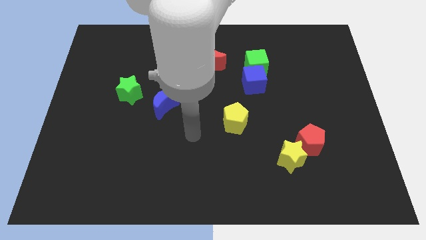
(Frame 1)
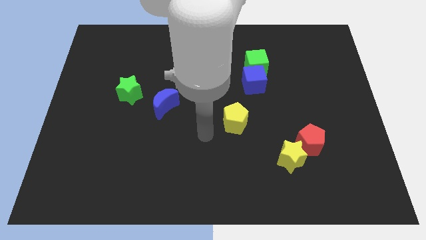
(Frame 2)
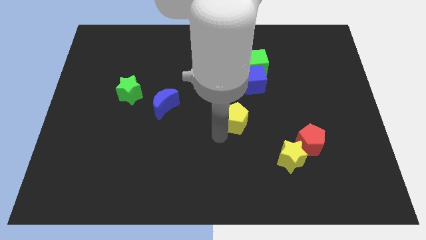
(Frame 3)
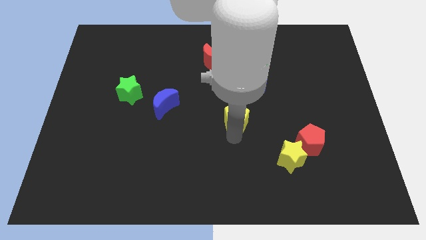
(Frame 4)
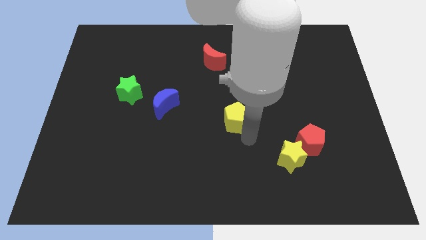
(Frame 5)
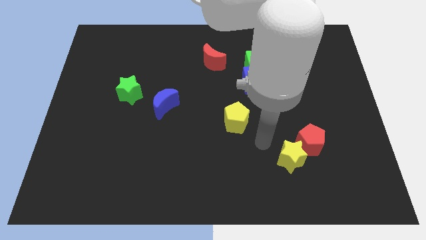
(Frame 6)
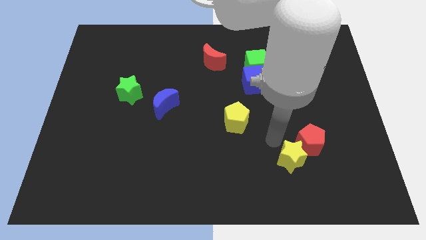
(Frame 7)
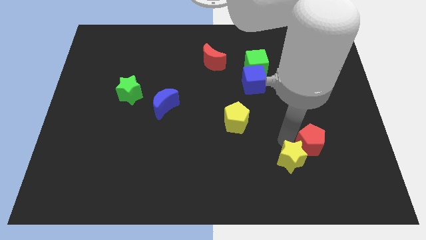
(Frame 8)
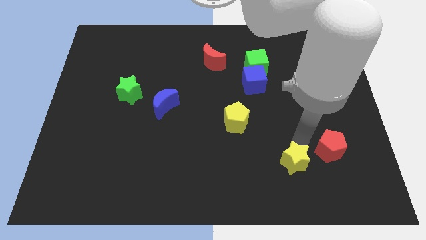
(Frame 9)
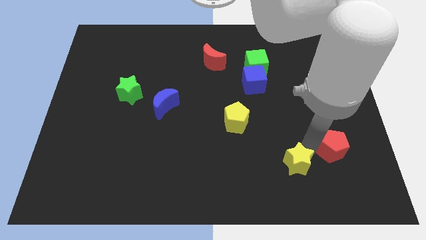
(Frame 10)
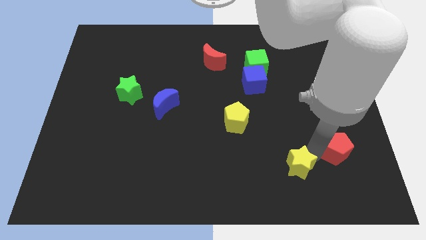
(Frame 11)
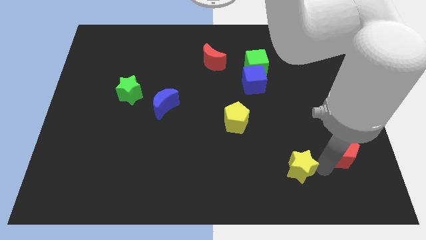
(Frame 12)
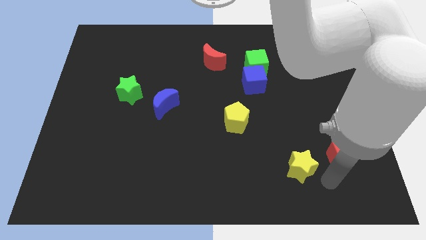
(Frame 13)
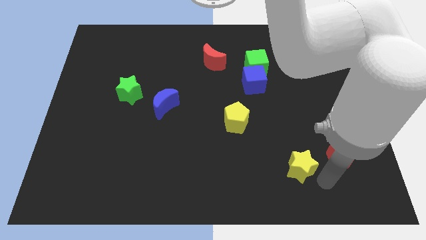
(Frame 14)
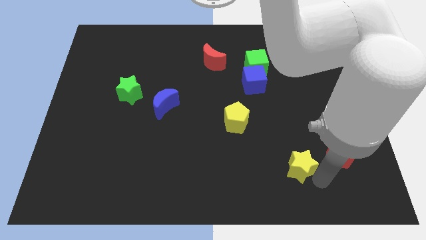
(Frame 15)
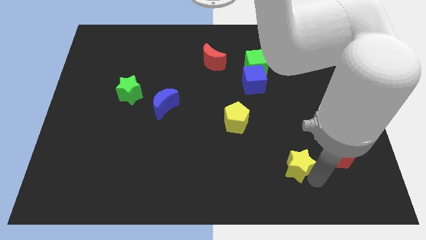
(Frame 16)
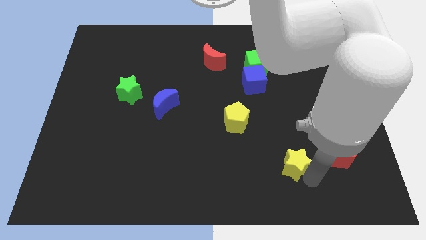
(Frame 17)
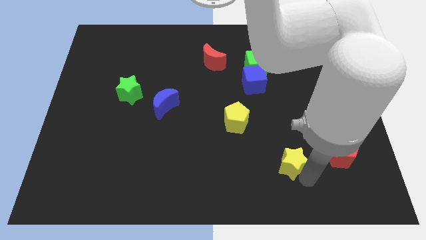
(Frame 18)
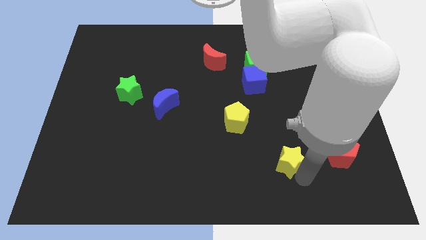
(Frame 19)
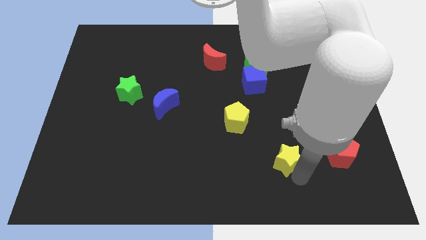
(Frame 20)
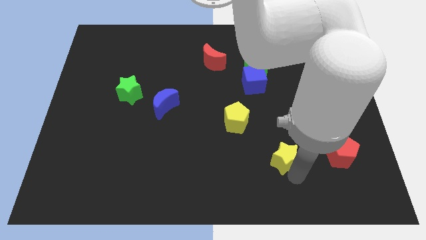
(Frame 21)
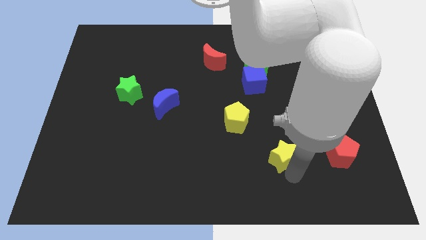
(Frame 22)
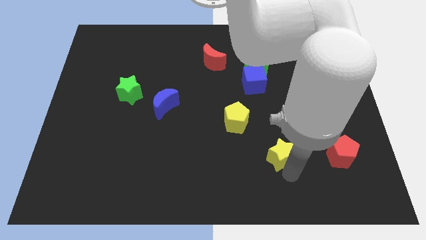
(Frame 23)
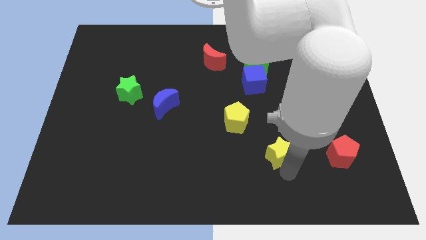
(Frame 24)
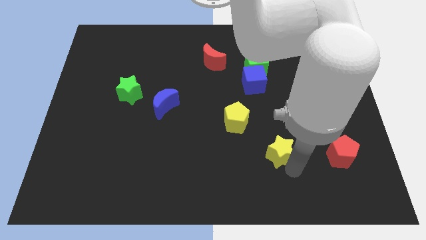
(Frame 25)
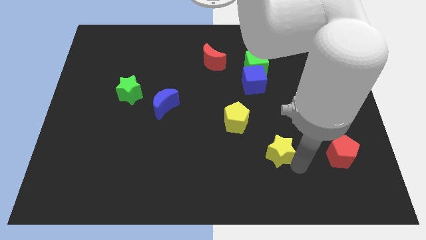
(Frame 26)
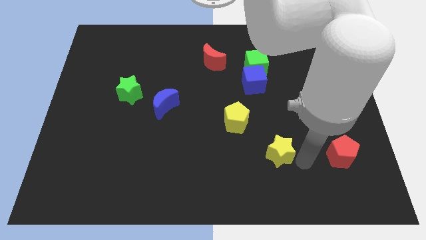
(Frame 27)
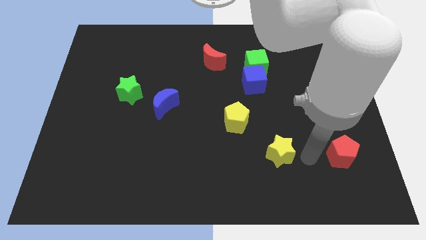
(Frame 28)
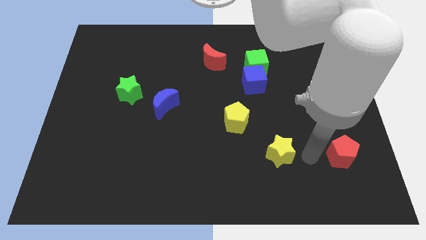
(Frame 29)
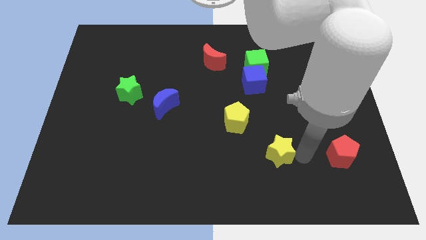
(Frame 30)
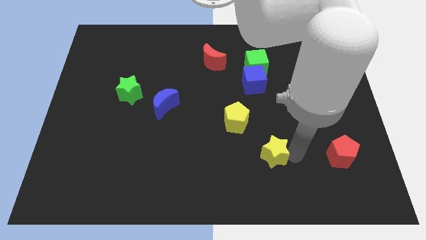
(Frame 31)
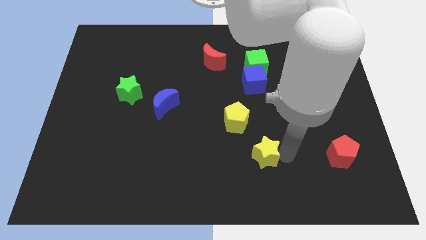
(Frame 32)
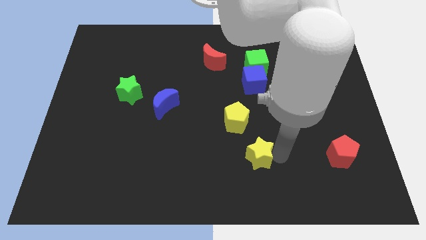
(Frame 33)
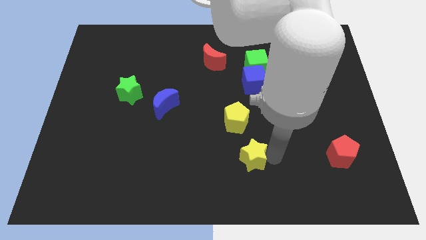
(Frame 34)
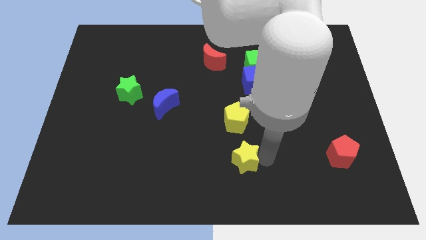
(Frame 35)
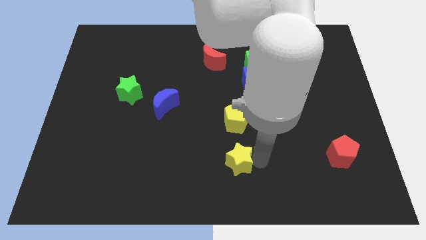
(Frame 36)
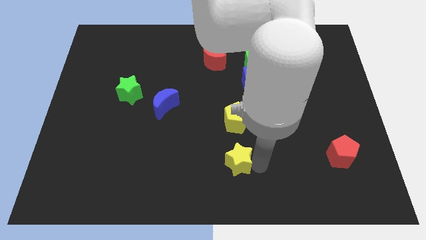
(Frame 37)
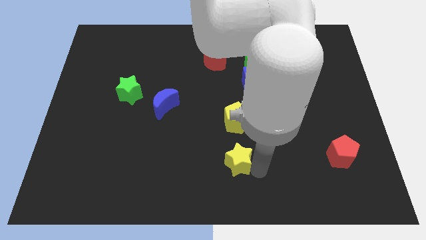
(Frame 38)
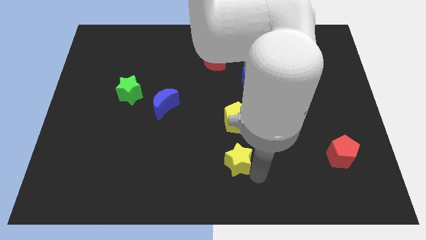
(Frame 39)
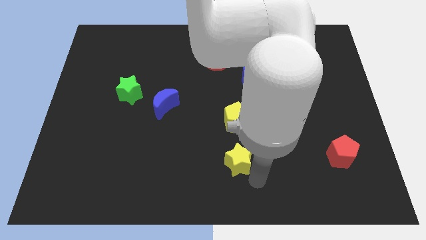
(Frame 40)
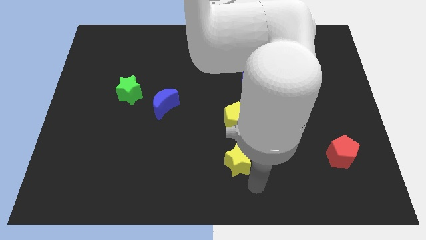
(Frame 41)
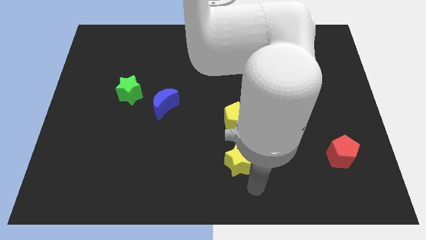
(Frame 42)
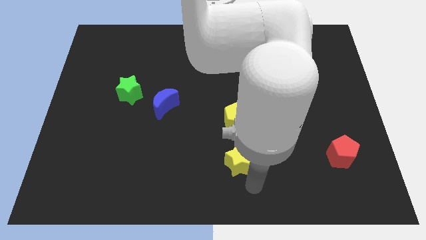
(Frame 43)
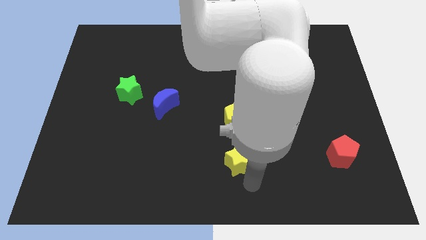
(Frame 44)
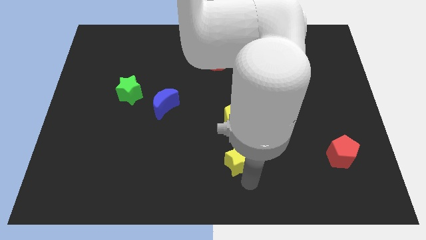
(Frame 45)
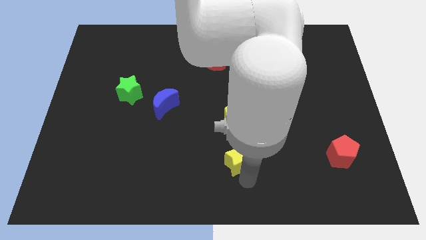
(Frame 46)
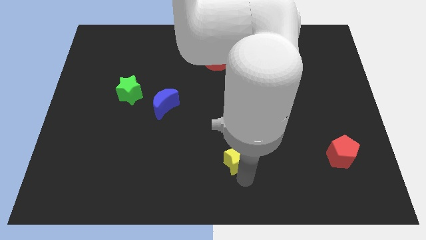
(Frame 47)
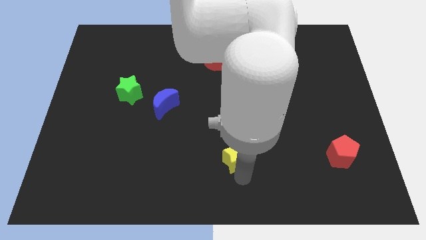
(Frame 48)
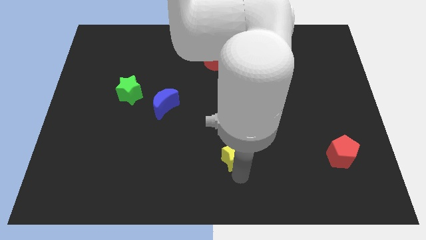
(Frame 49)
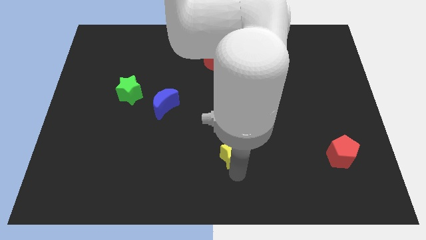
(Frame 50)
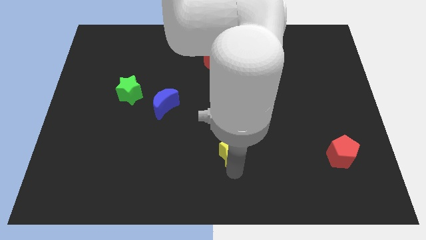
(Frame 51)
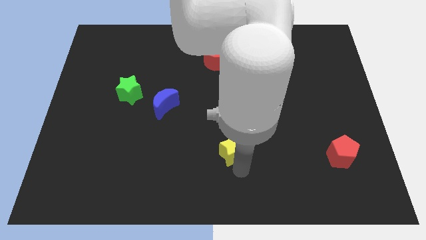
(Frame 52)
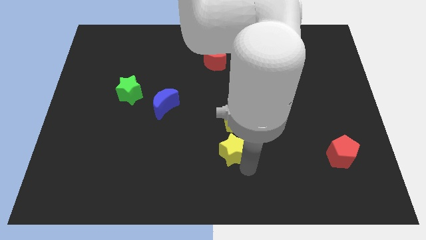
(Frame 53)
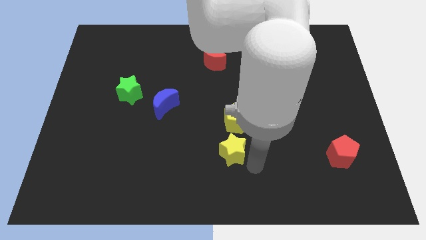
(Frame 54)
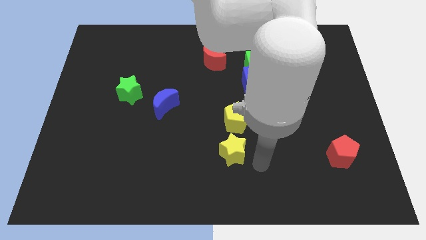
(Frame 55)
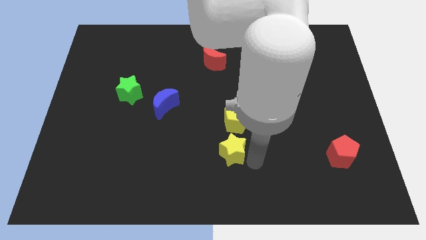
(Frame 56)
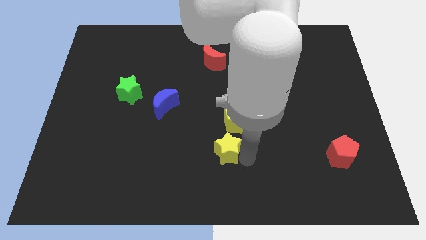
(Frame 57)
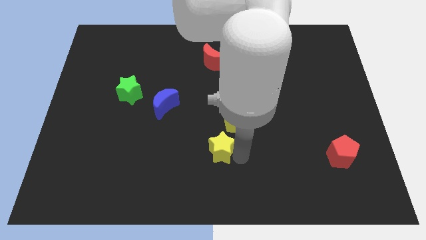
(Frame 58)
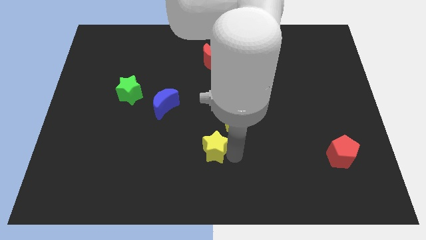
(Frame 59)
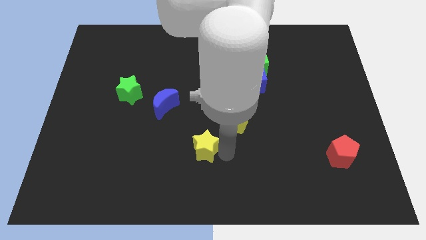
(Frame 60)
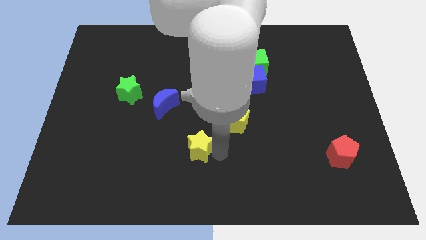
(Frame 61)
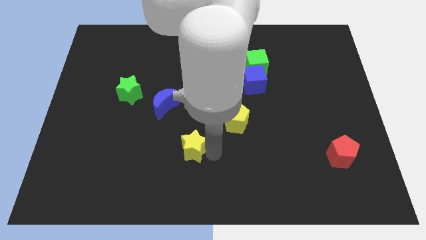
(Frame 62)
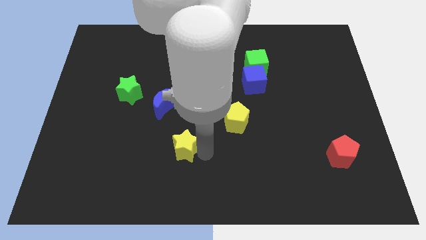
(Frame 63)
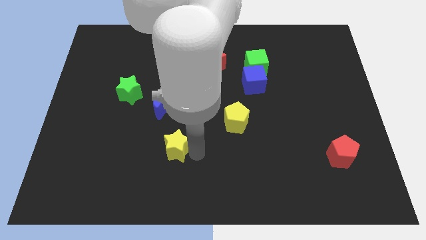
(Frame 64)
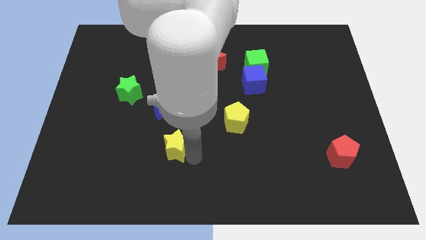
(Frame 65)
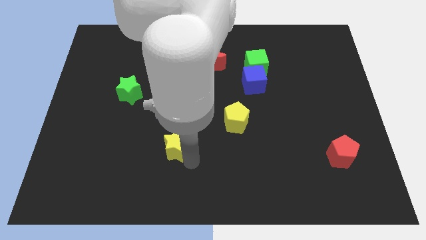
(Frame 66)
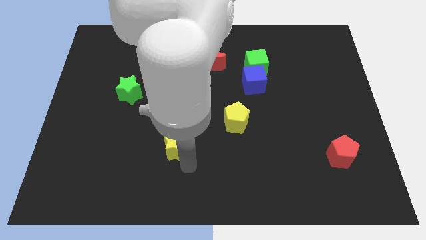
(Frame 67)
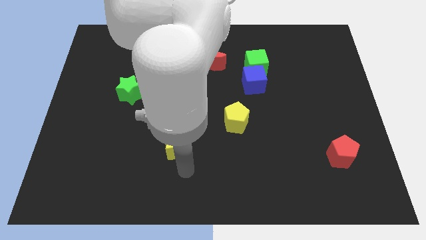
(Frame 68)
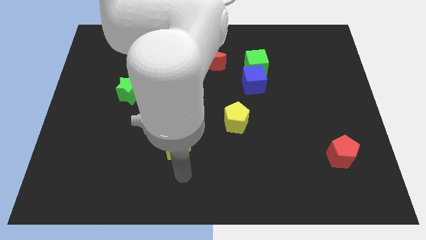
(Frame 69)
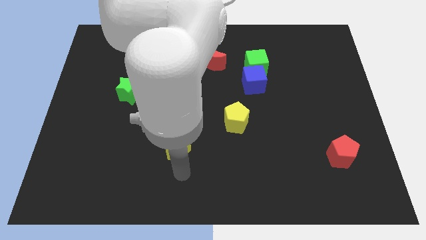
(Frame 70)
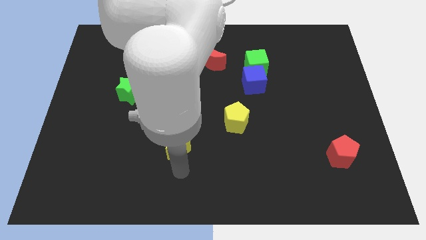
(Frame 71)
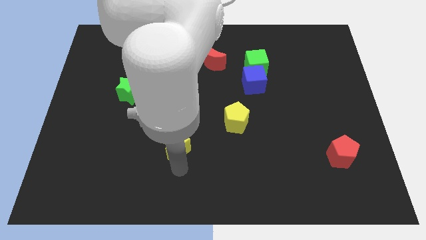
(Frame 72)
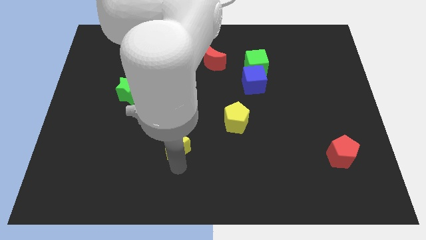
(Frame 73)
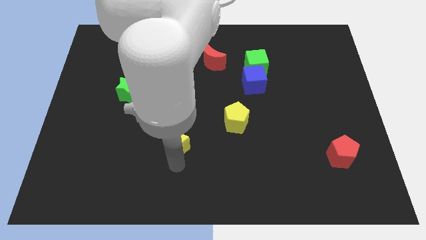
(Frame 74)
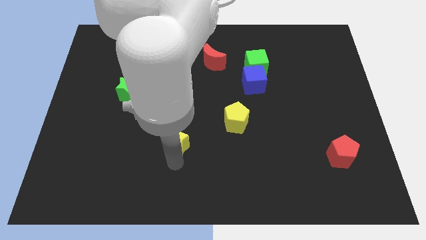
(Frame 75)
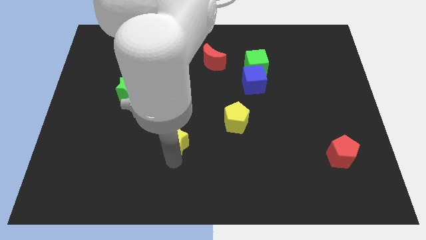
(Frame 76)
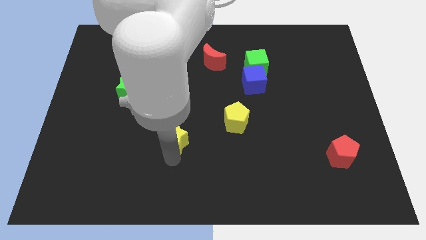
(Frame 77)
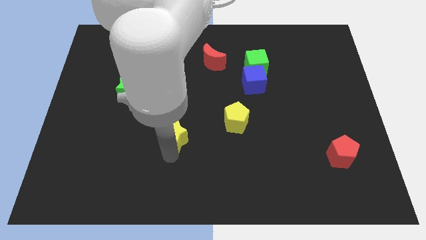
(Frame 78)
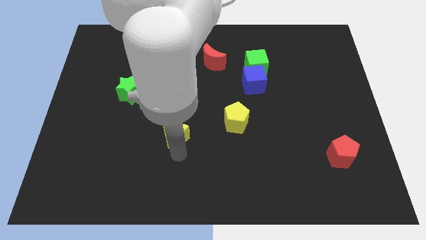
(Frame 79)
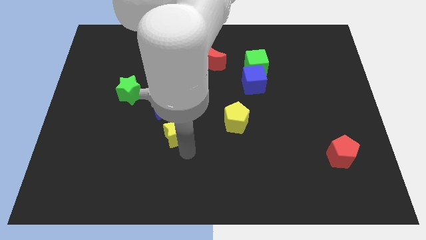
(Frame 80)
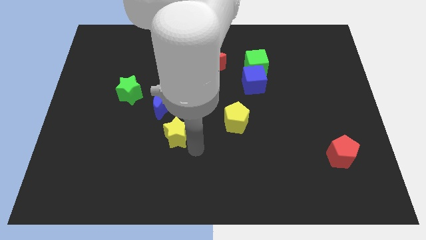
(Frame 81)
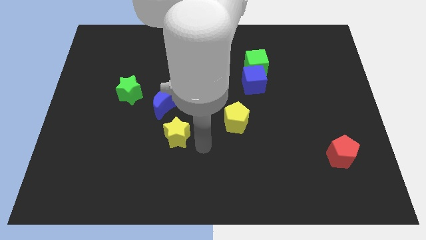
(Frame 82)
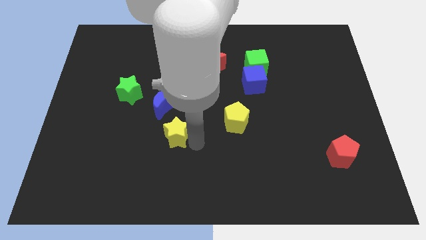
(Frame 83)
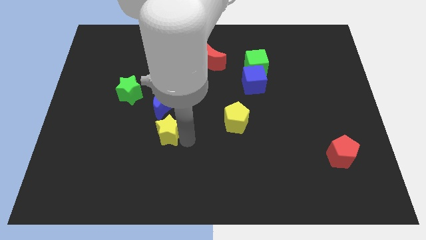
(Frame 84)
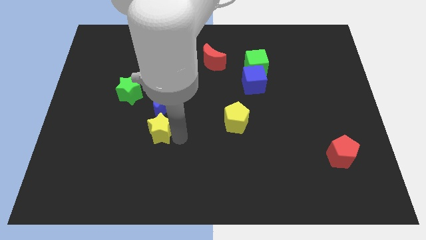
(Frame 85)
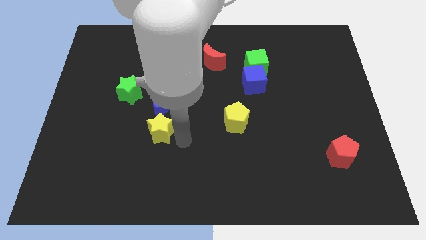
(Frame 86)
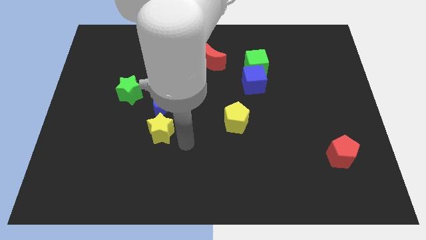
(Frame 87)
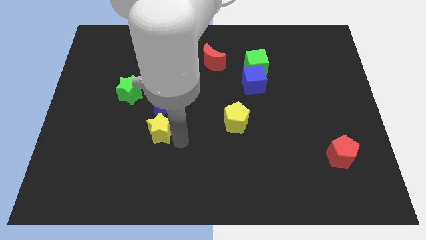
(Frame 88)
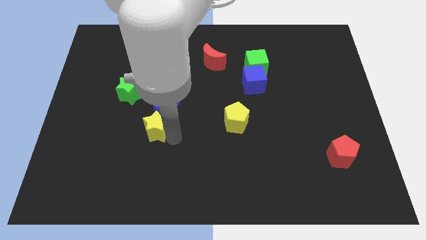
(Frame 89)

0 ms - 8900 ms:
move the yellow star to the bottom left of the blue moon
